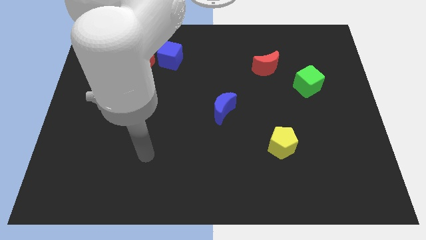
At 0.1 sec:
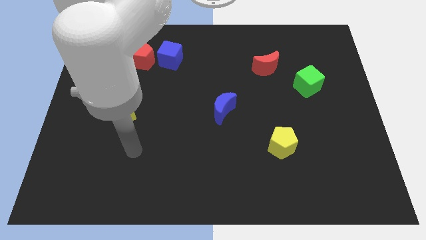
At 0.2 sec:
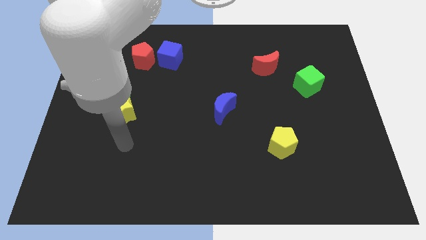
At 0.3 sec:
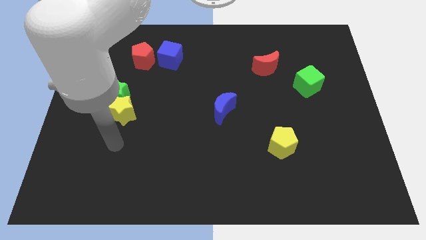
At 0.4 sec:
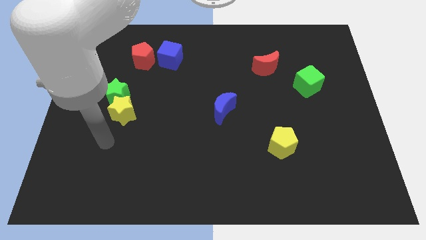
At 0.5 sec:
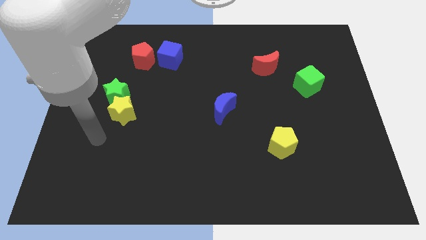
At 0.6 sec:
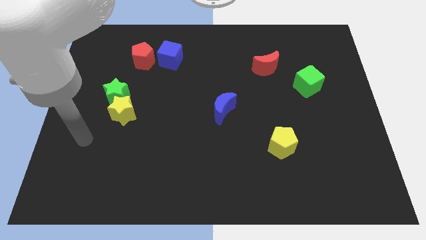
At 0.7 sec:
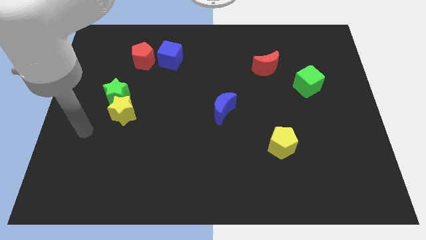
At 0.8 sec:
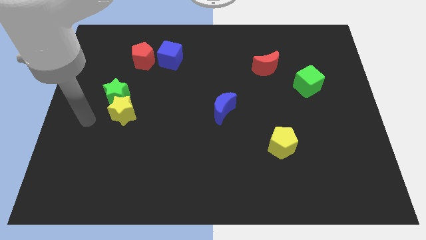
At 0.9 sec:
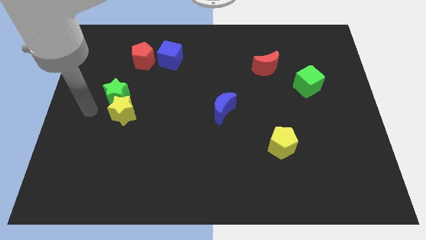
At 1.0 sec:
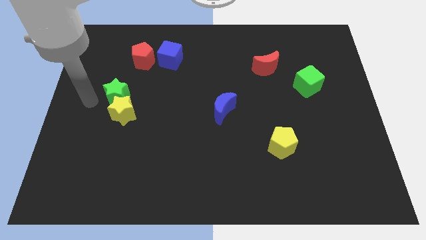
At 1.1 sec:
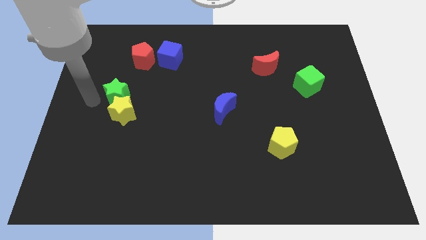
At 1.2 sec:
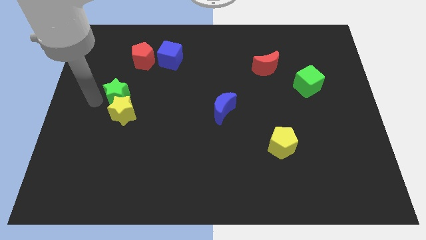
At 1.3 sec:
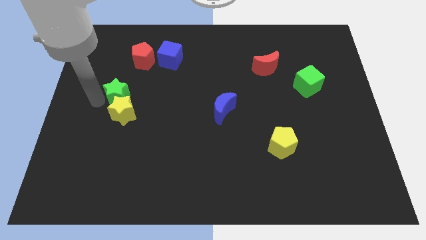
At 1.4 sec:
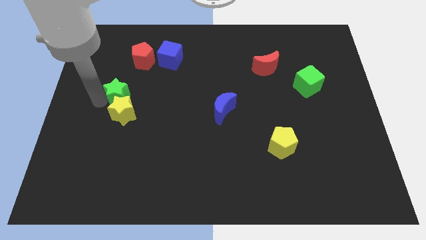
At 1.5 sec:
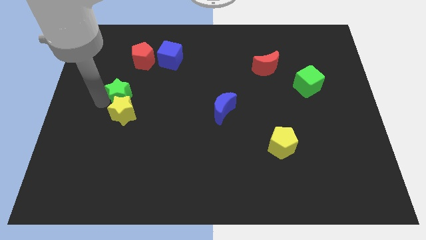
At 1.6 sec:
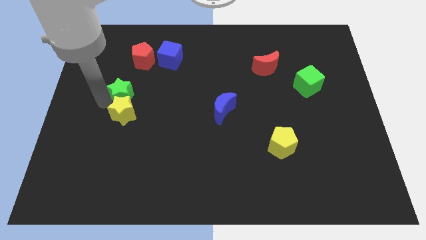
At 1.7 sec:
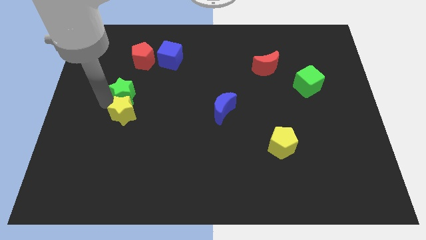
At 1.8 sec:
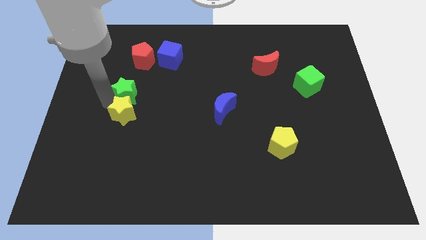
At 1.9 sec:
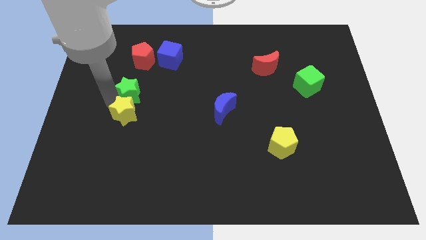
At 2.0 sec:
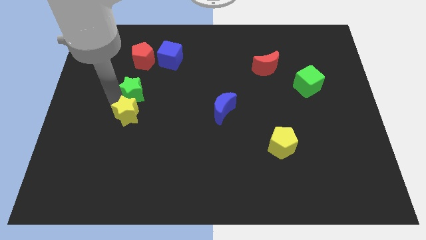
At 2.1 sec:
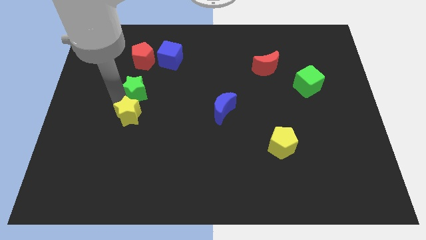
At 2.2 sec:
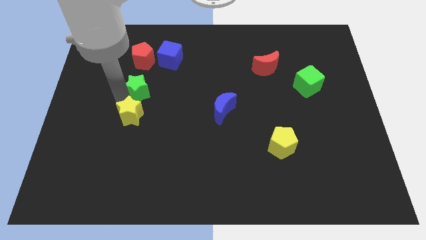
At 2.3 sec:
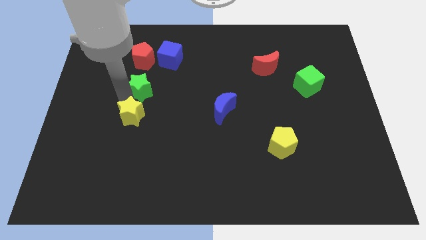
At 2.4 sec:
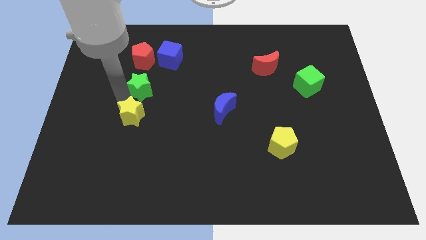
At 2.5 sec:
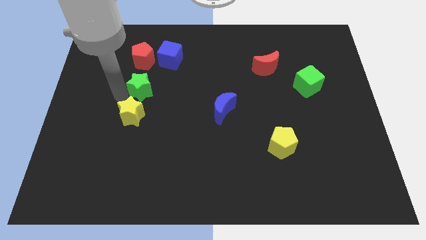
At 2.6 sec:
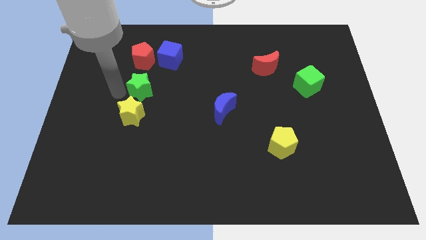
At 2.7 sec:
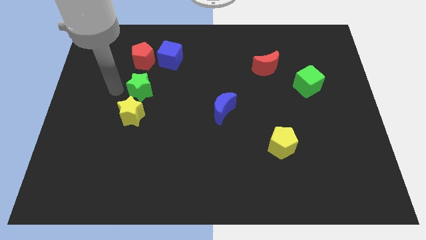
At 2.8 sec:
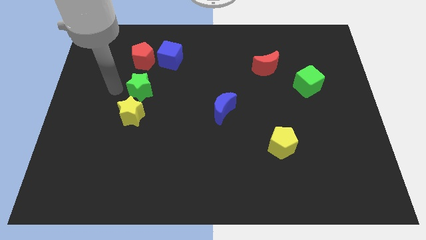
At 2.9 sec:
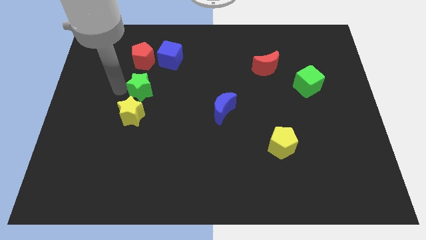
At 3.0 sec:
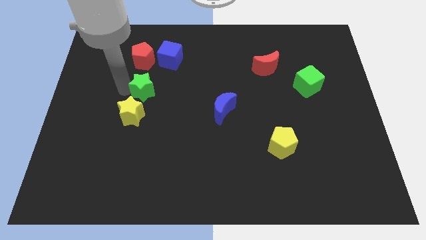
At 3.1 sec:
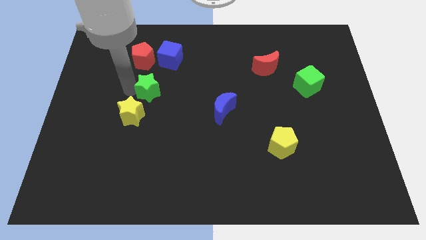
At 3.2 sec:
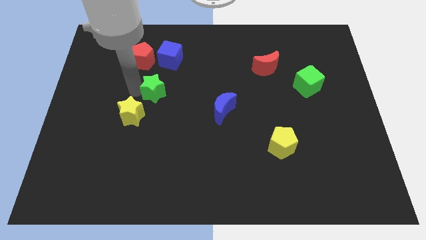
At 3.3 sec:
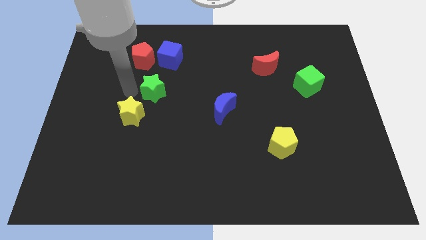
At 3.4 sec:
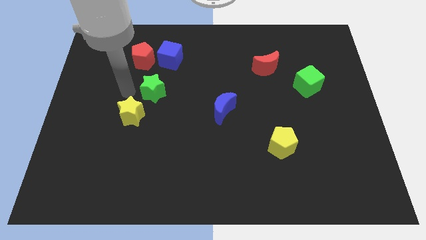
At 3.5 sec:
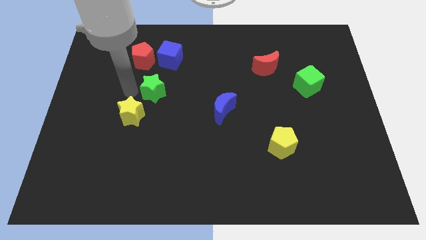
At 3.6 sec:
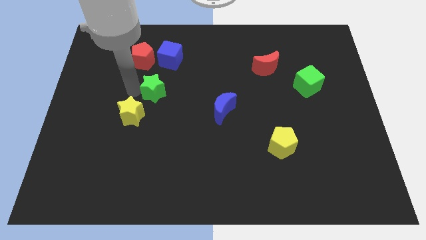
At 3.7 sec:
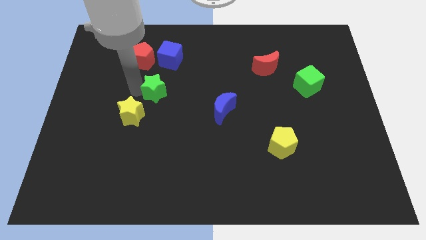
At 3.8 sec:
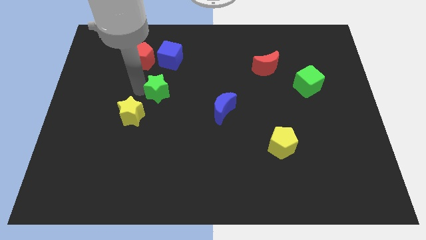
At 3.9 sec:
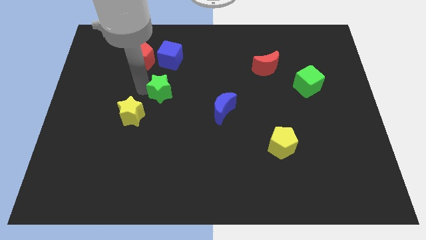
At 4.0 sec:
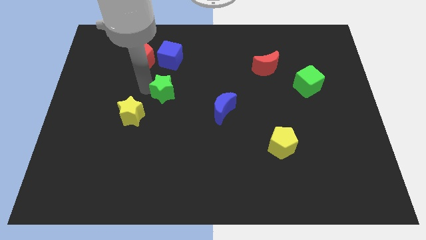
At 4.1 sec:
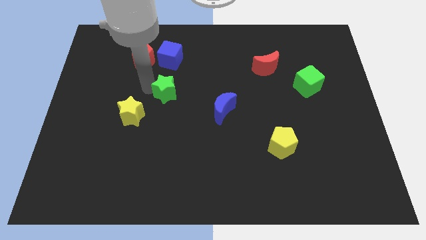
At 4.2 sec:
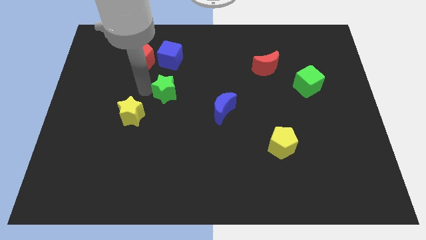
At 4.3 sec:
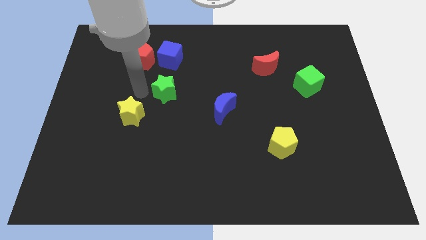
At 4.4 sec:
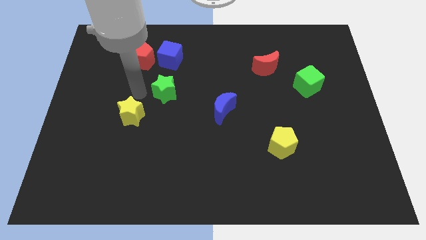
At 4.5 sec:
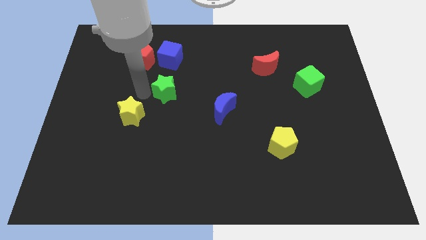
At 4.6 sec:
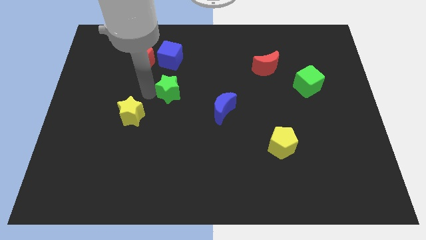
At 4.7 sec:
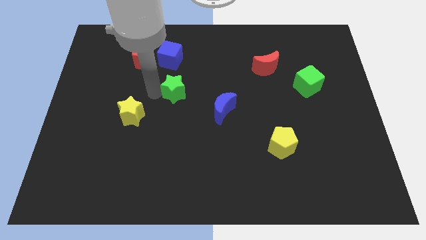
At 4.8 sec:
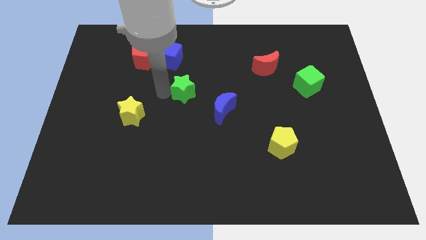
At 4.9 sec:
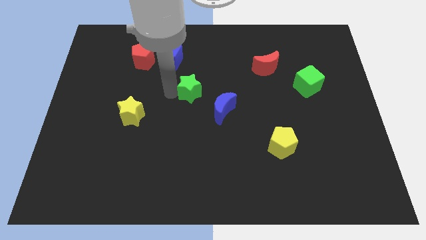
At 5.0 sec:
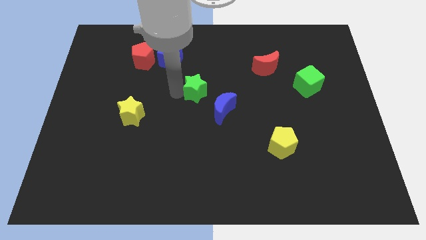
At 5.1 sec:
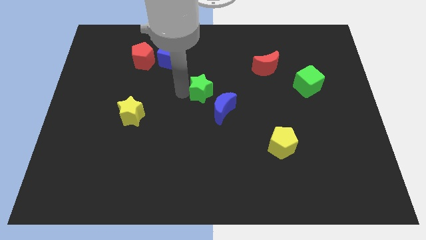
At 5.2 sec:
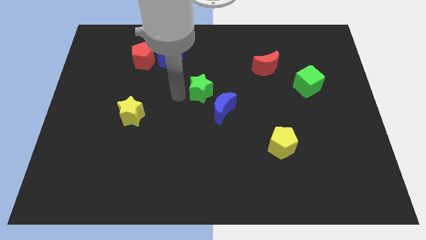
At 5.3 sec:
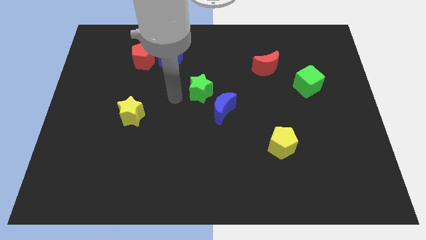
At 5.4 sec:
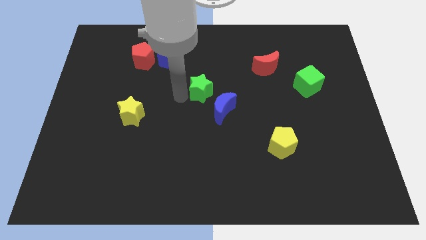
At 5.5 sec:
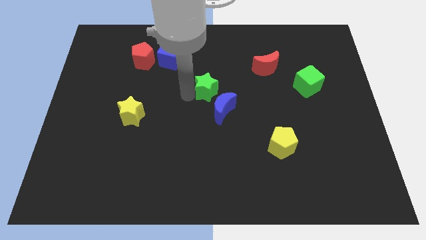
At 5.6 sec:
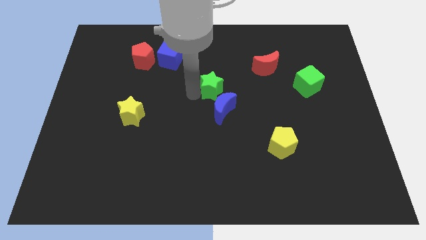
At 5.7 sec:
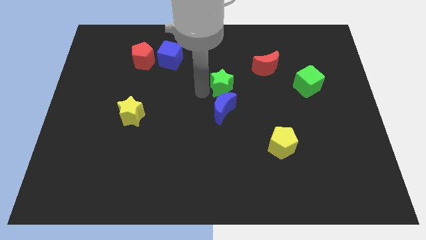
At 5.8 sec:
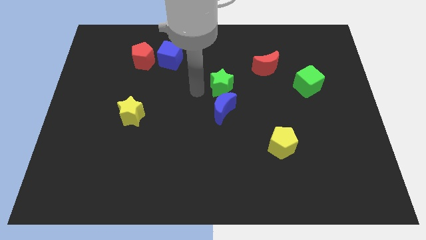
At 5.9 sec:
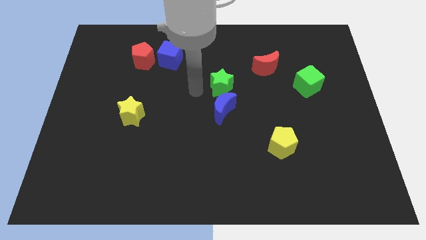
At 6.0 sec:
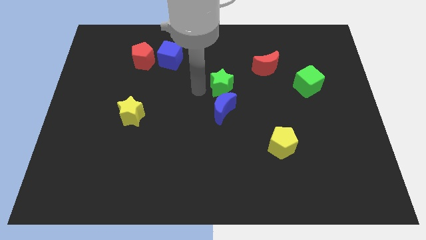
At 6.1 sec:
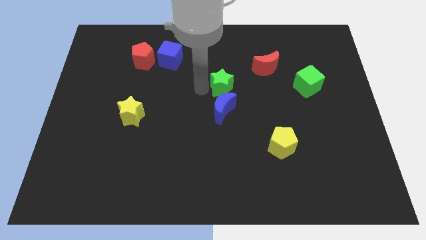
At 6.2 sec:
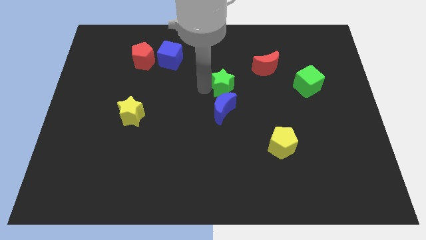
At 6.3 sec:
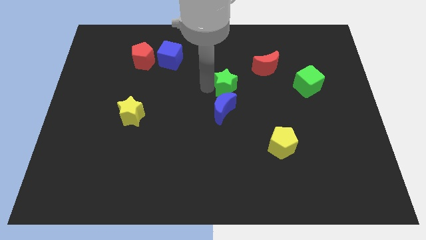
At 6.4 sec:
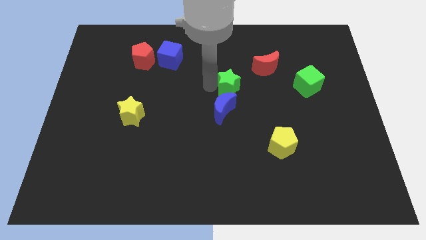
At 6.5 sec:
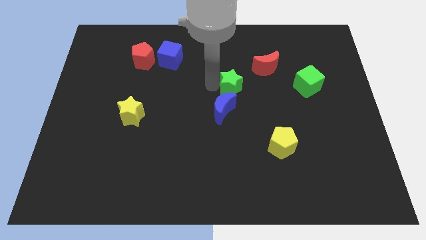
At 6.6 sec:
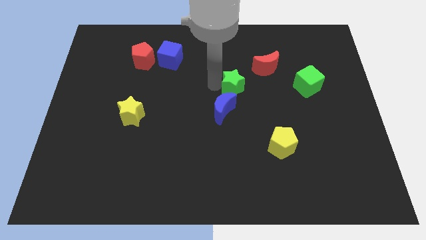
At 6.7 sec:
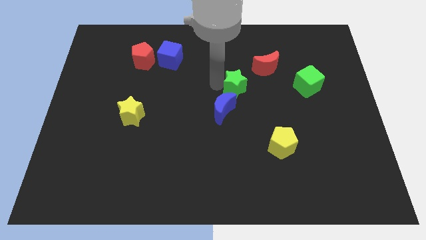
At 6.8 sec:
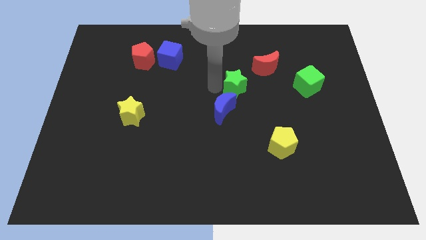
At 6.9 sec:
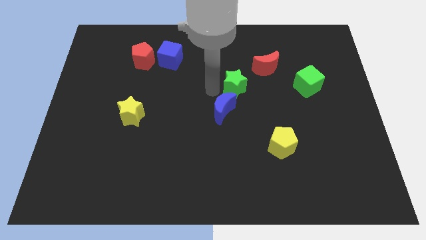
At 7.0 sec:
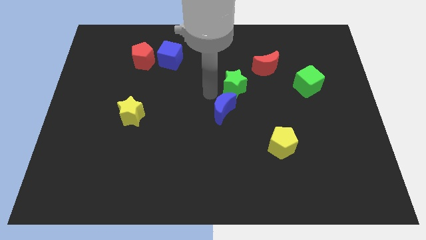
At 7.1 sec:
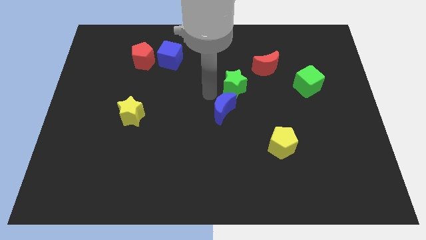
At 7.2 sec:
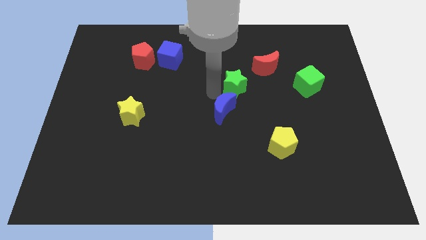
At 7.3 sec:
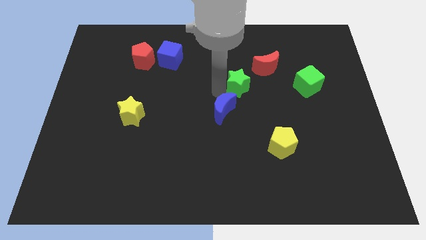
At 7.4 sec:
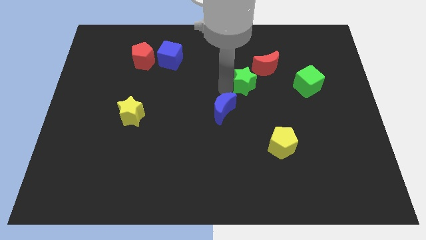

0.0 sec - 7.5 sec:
slide the green star just left of the green cube

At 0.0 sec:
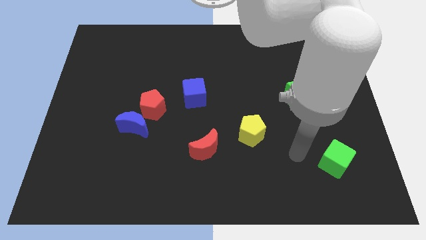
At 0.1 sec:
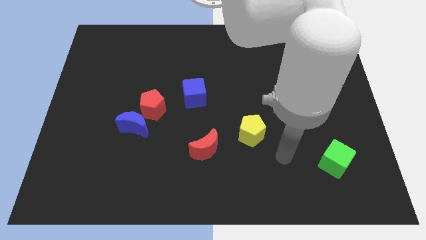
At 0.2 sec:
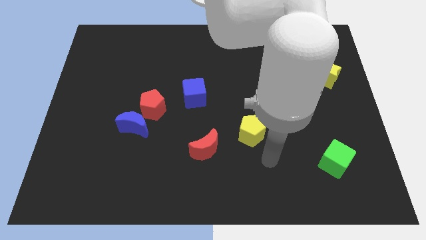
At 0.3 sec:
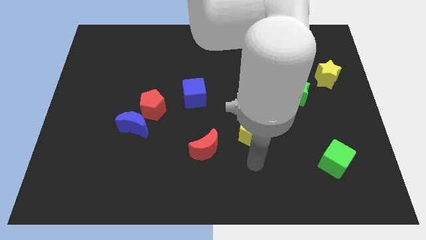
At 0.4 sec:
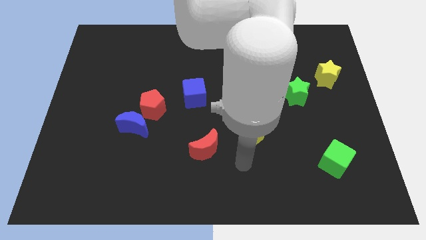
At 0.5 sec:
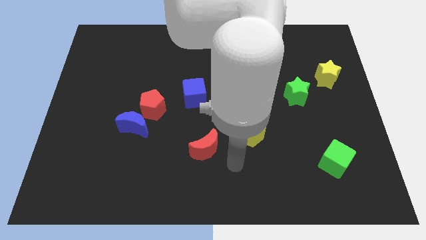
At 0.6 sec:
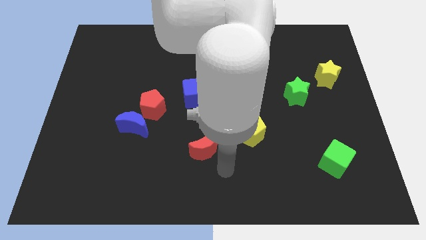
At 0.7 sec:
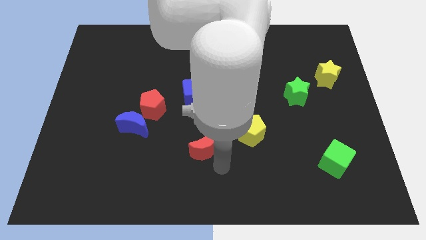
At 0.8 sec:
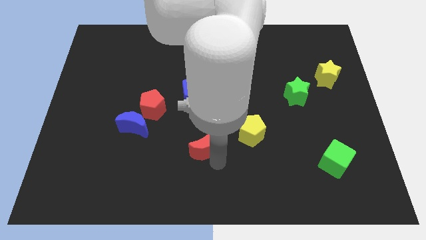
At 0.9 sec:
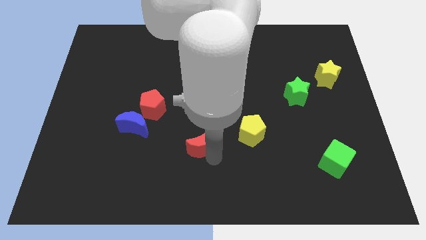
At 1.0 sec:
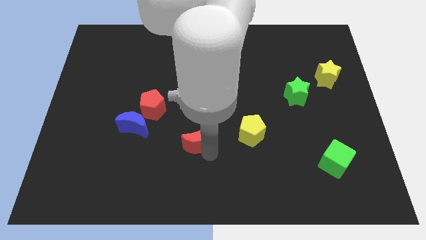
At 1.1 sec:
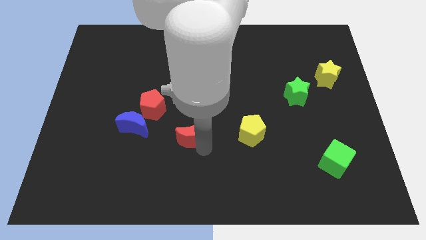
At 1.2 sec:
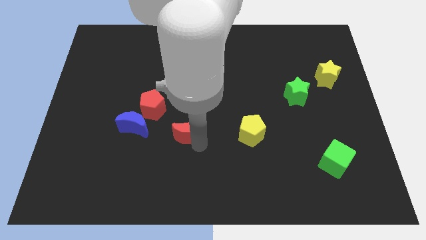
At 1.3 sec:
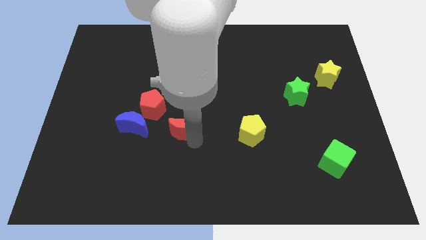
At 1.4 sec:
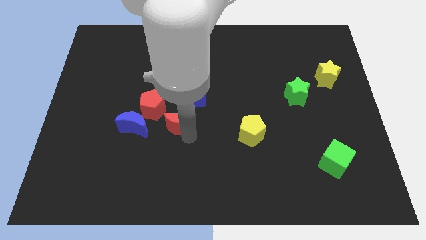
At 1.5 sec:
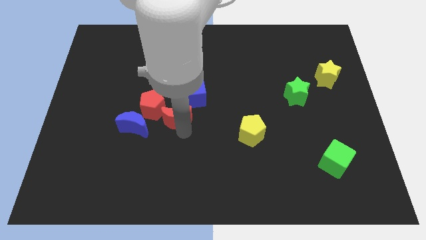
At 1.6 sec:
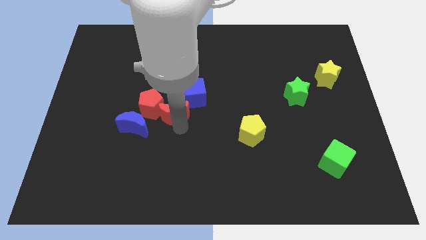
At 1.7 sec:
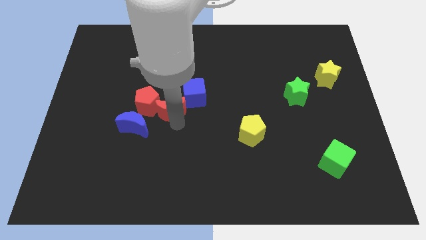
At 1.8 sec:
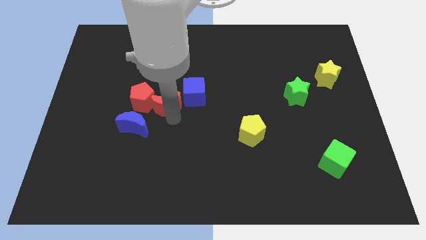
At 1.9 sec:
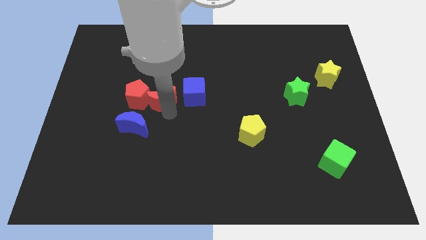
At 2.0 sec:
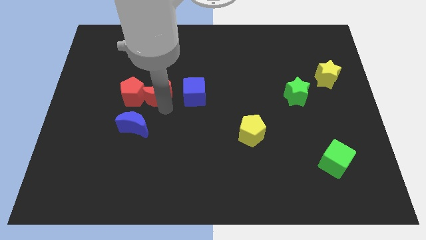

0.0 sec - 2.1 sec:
push the red moon to the top right of the red pentagon
